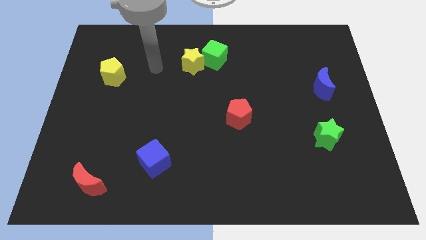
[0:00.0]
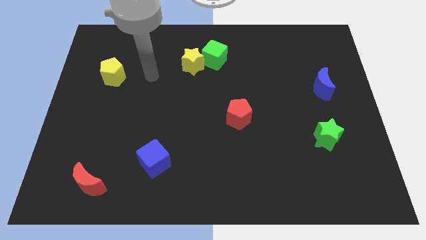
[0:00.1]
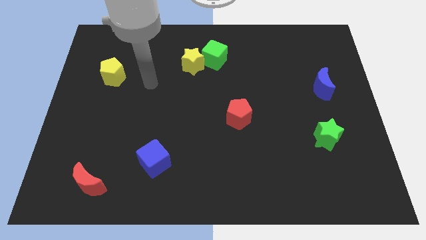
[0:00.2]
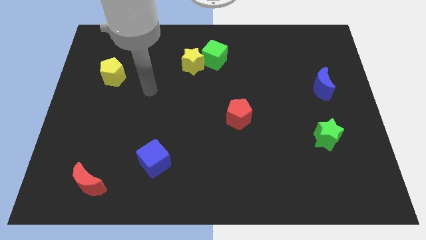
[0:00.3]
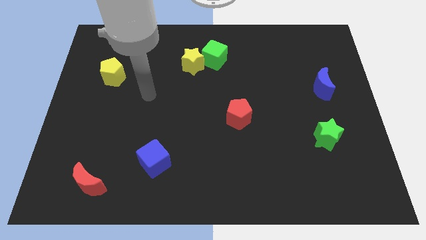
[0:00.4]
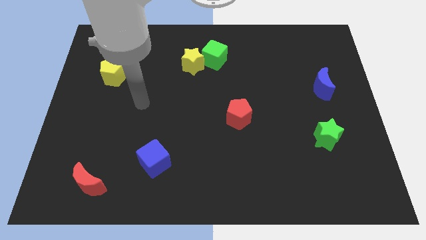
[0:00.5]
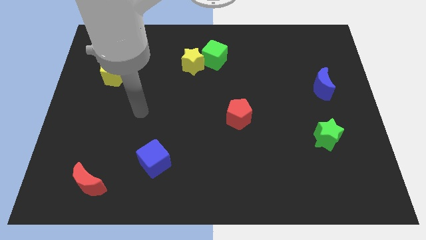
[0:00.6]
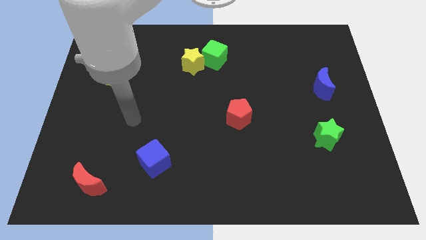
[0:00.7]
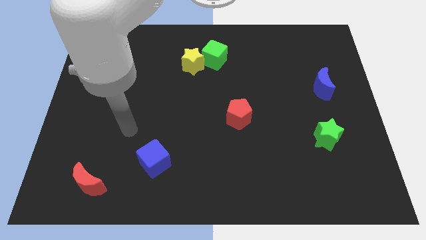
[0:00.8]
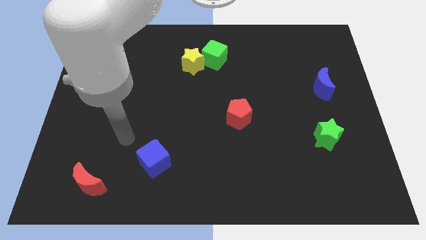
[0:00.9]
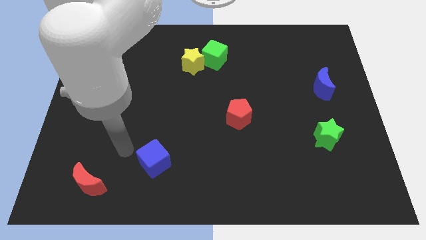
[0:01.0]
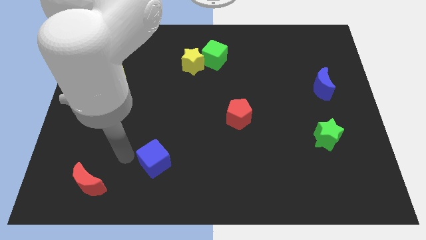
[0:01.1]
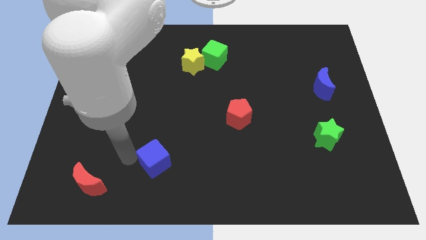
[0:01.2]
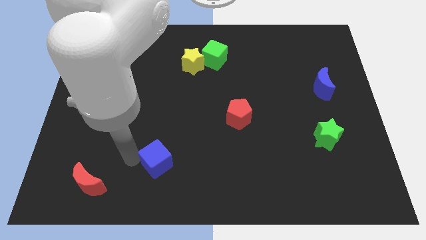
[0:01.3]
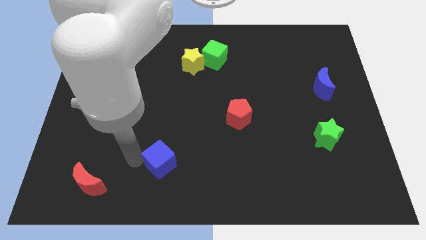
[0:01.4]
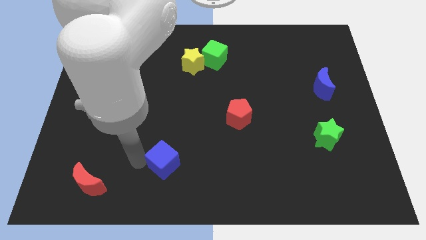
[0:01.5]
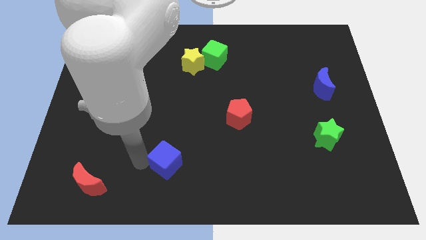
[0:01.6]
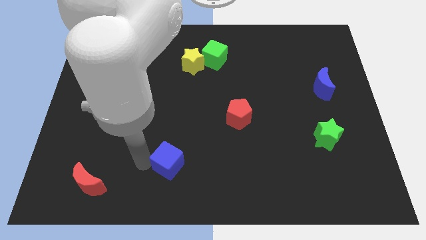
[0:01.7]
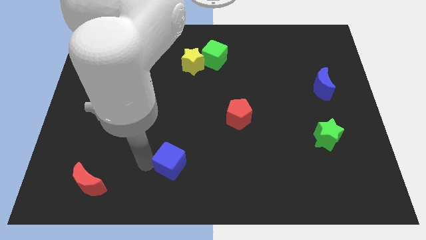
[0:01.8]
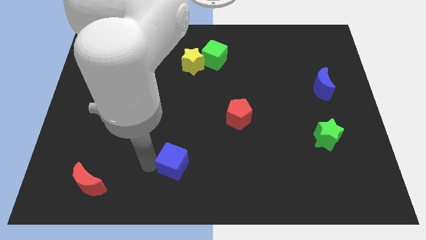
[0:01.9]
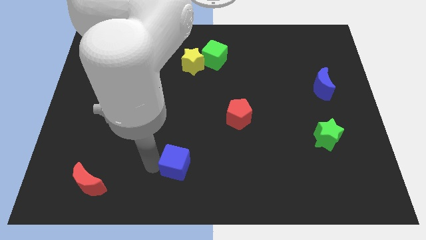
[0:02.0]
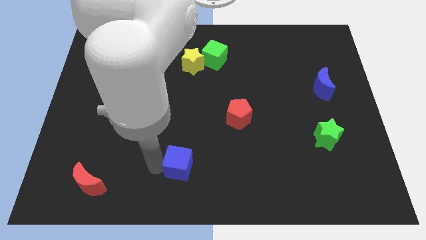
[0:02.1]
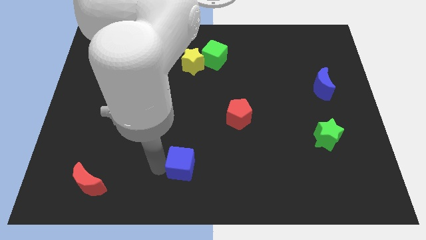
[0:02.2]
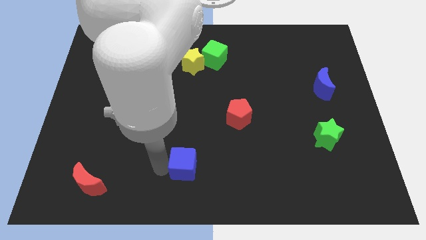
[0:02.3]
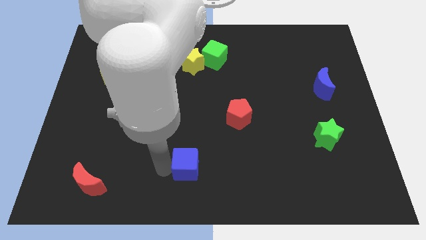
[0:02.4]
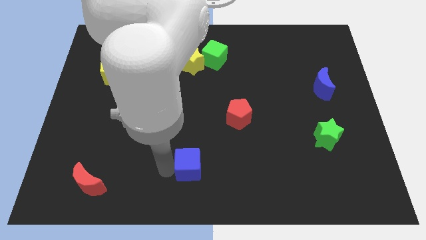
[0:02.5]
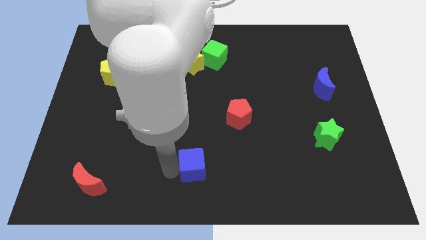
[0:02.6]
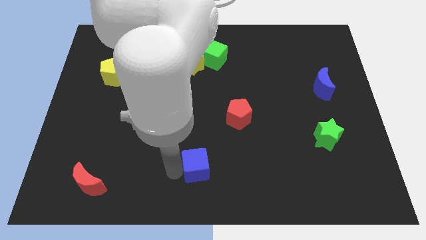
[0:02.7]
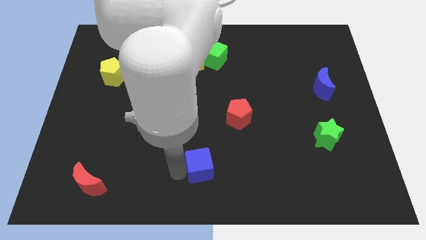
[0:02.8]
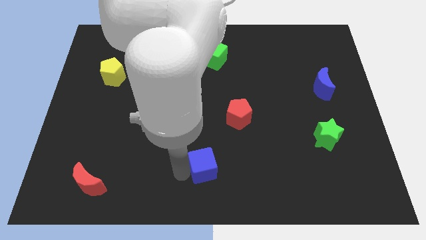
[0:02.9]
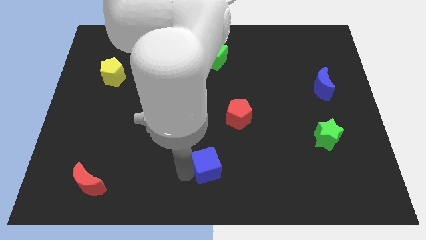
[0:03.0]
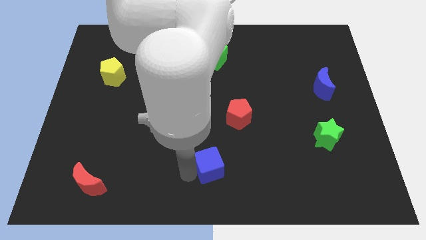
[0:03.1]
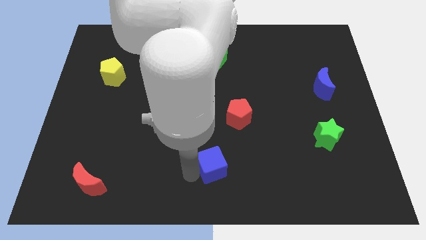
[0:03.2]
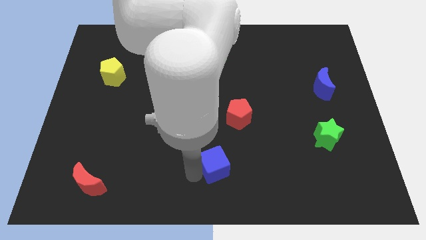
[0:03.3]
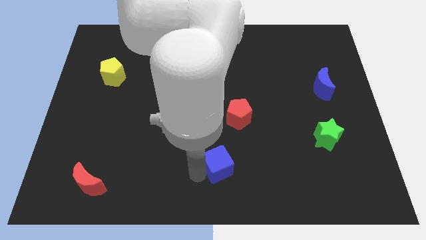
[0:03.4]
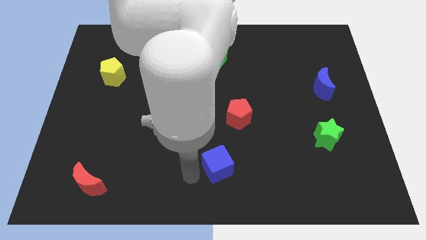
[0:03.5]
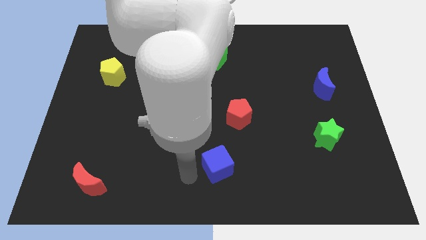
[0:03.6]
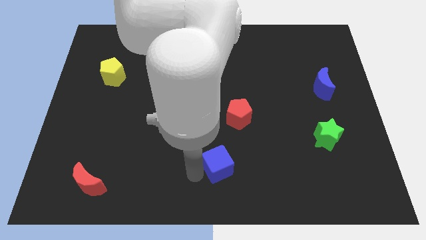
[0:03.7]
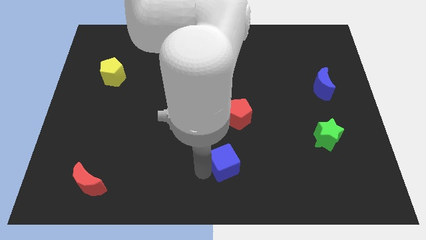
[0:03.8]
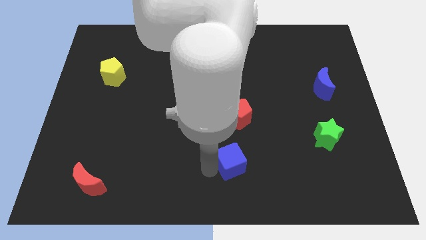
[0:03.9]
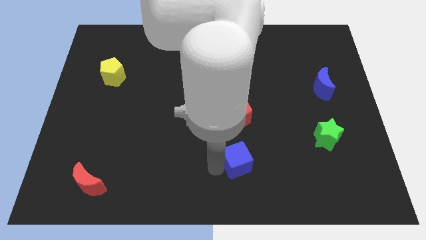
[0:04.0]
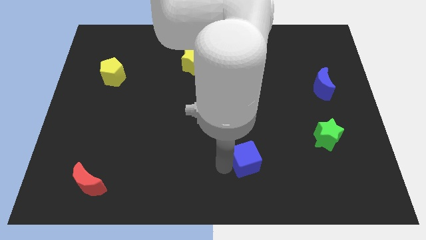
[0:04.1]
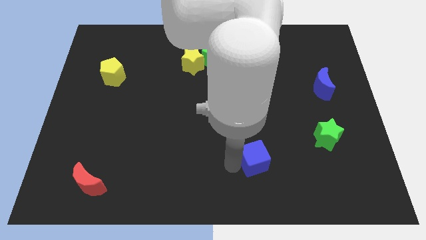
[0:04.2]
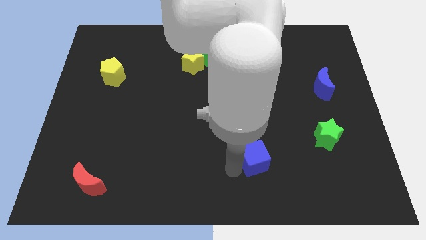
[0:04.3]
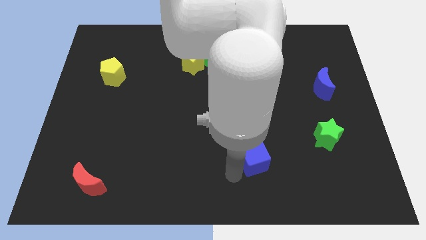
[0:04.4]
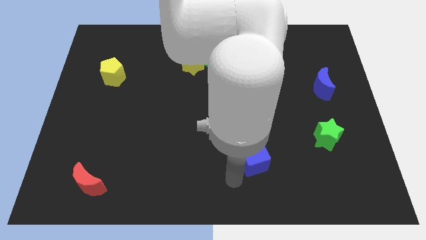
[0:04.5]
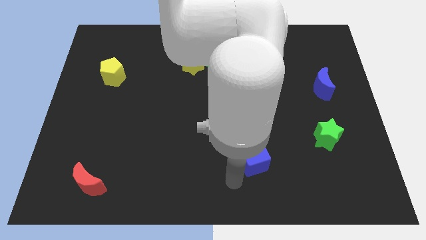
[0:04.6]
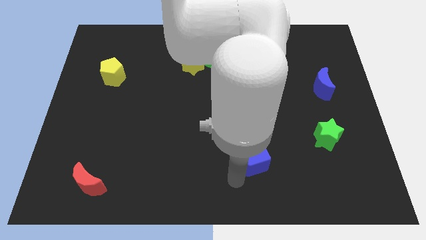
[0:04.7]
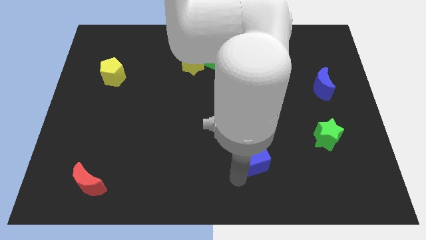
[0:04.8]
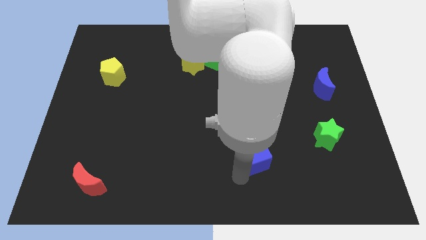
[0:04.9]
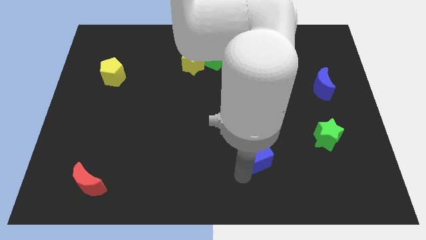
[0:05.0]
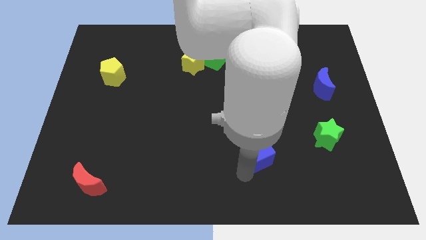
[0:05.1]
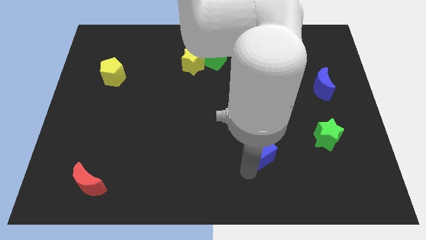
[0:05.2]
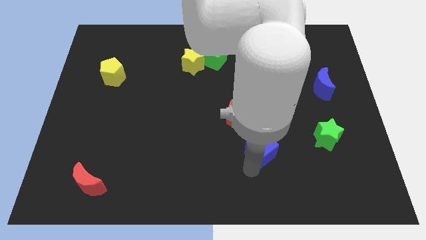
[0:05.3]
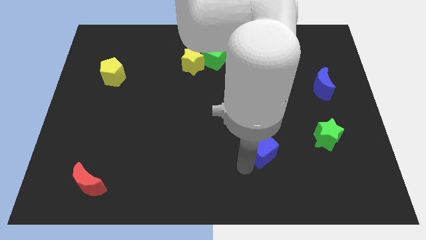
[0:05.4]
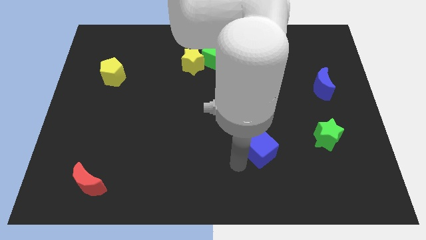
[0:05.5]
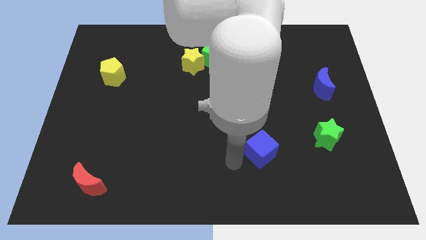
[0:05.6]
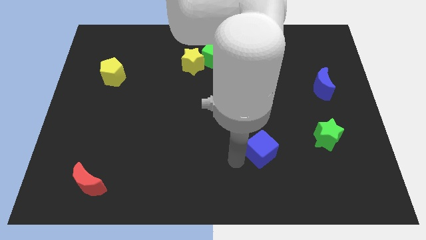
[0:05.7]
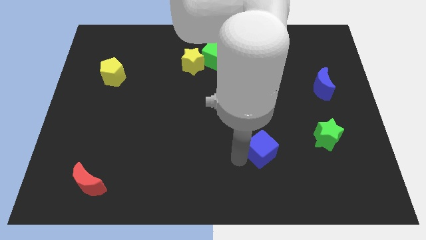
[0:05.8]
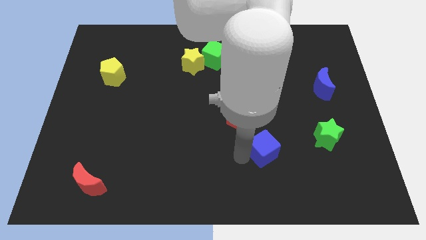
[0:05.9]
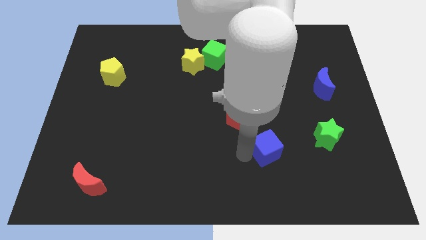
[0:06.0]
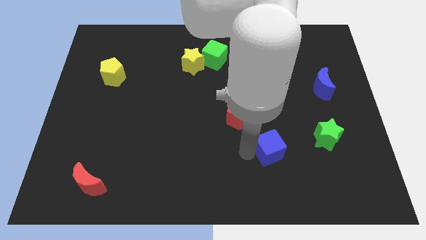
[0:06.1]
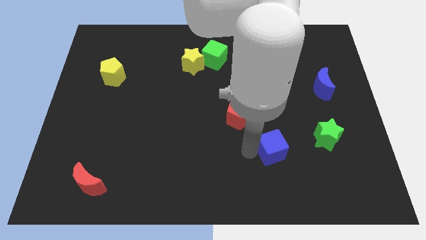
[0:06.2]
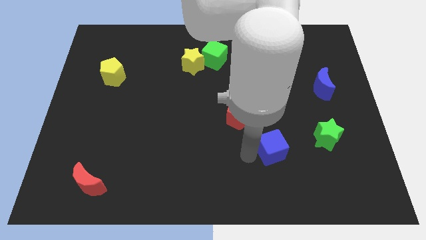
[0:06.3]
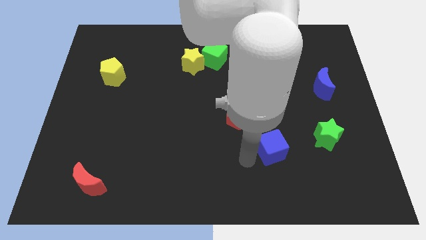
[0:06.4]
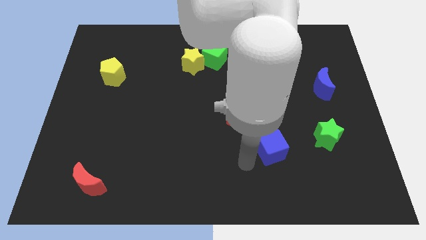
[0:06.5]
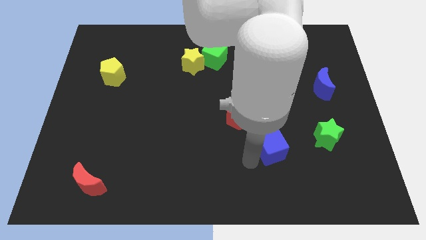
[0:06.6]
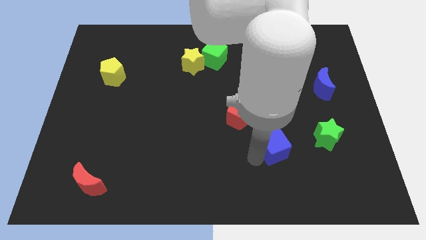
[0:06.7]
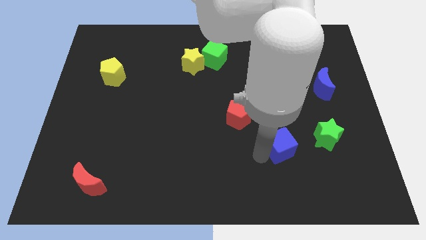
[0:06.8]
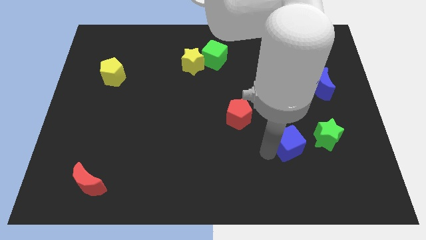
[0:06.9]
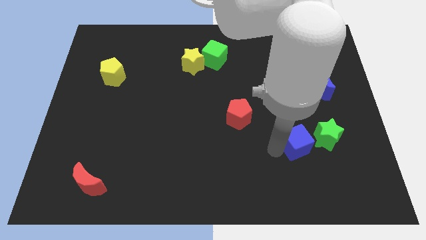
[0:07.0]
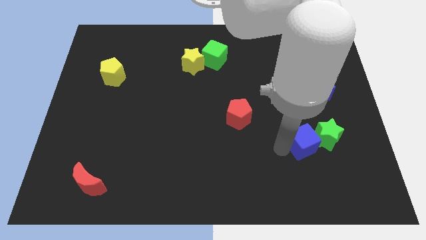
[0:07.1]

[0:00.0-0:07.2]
push the blue cube next to the green star
